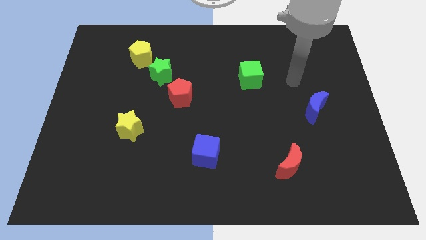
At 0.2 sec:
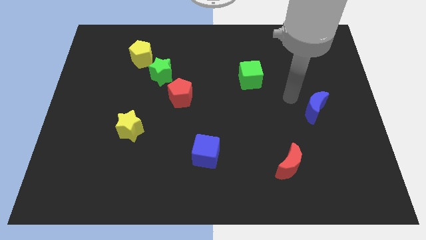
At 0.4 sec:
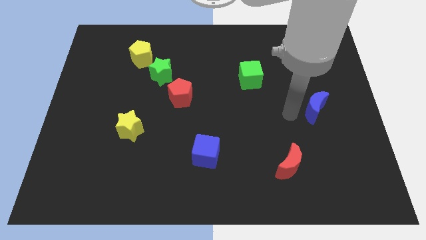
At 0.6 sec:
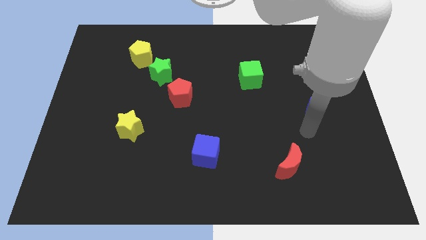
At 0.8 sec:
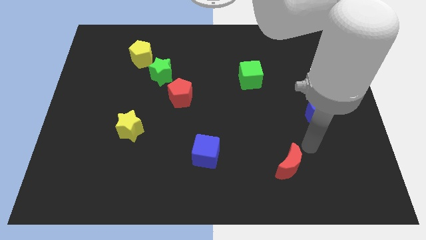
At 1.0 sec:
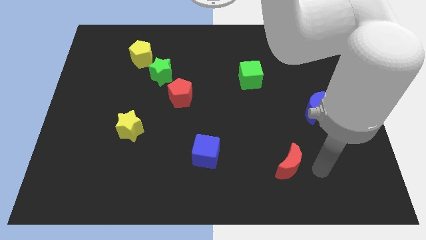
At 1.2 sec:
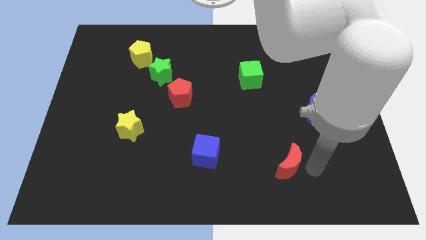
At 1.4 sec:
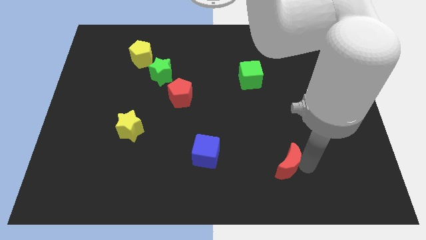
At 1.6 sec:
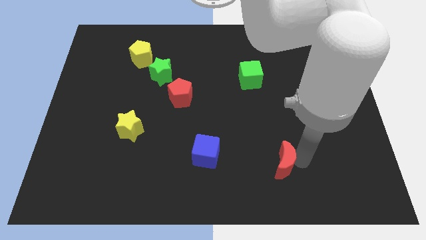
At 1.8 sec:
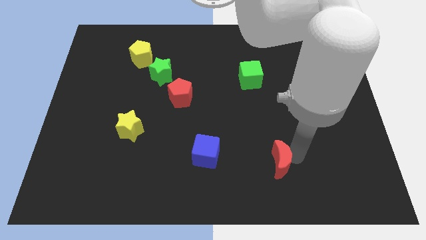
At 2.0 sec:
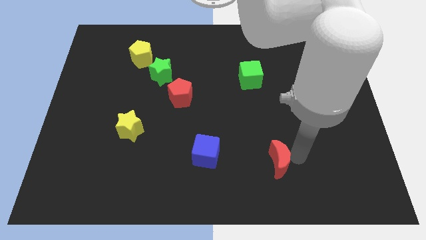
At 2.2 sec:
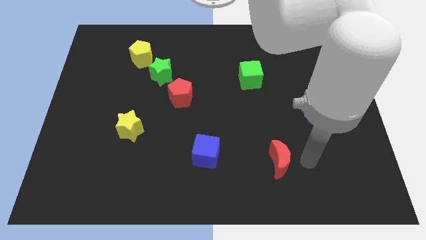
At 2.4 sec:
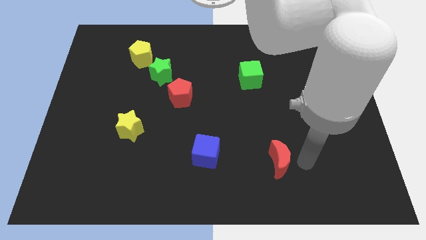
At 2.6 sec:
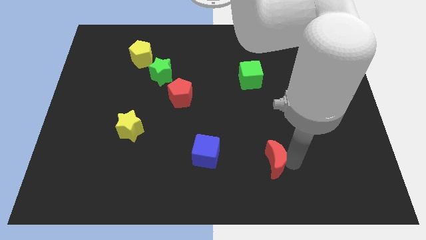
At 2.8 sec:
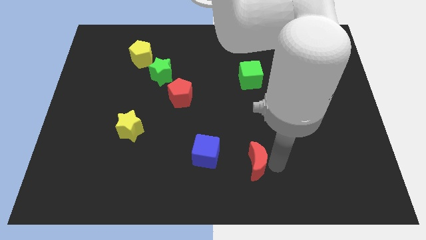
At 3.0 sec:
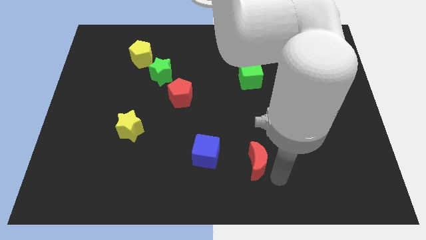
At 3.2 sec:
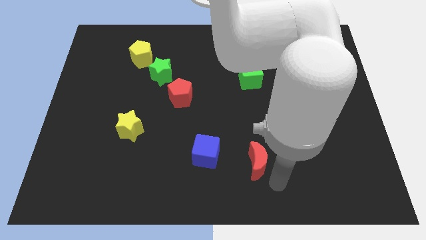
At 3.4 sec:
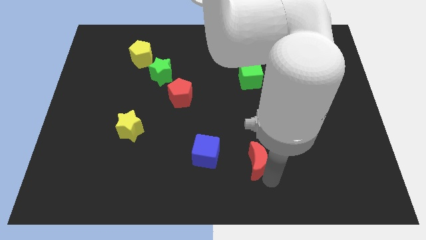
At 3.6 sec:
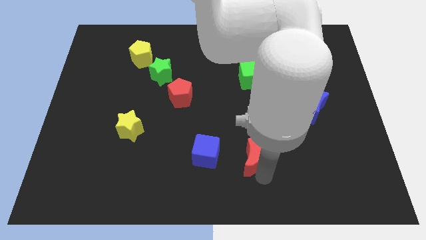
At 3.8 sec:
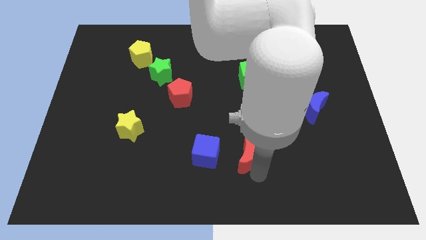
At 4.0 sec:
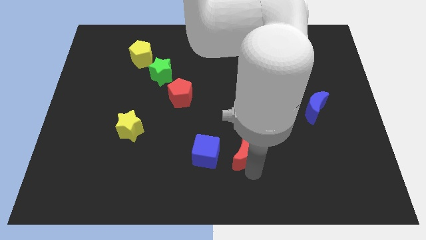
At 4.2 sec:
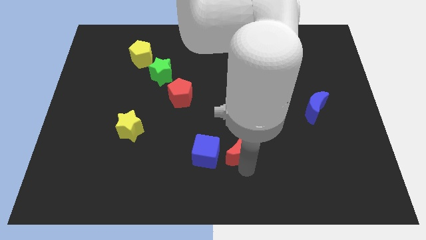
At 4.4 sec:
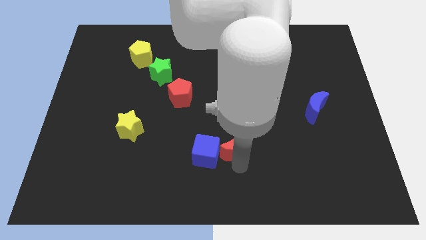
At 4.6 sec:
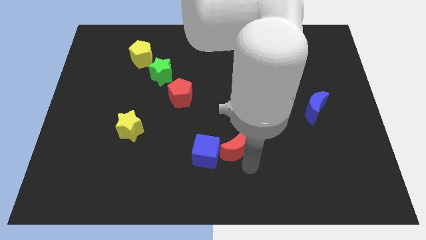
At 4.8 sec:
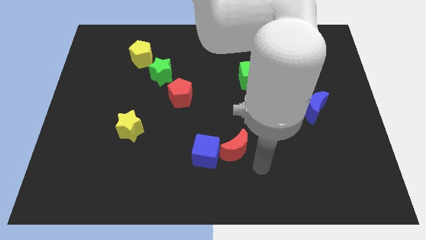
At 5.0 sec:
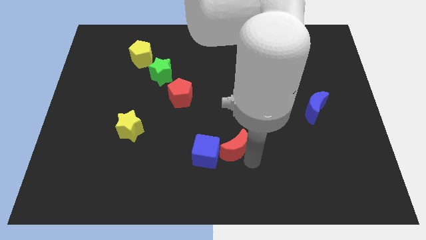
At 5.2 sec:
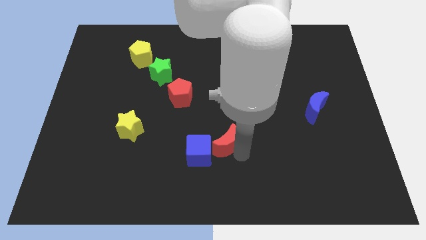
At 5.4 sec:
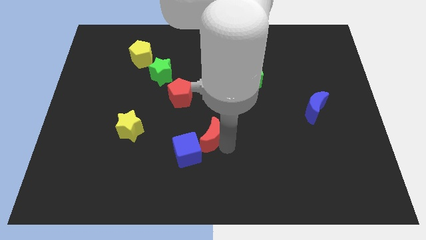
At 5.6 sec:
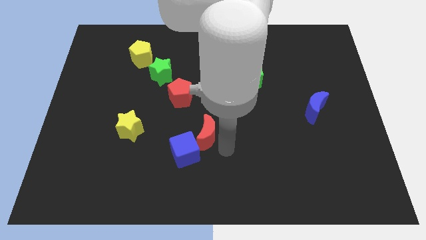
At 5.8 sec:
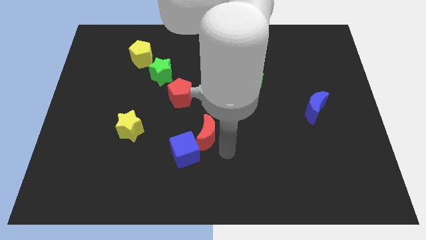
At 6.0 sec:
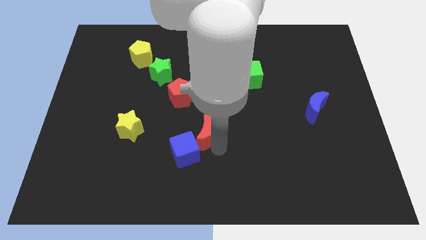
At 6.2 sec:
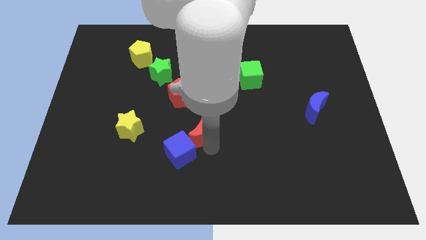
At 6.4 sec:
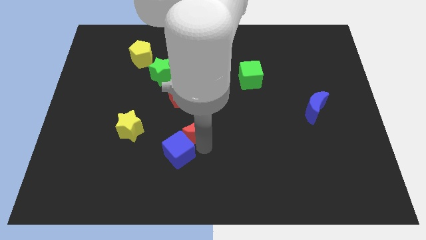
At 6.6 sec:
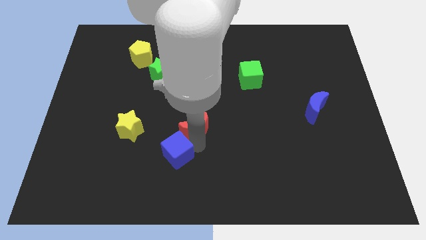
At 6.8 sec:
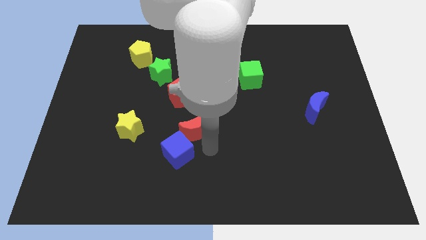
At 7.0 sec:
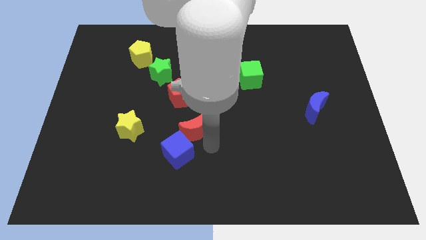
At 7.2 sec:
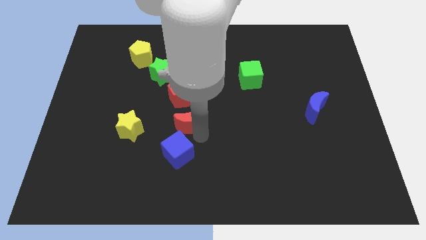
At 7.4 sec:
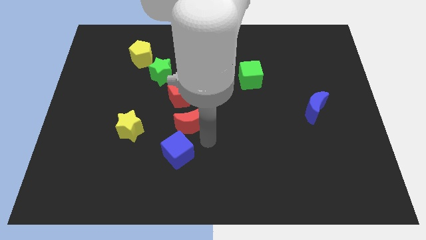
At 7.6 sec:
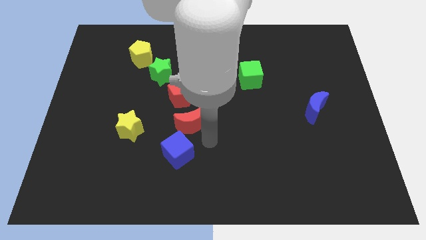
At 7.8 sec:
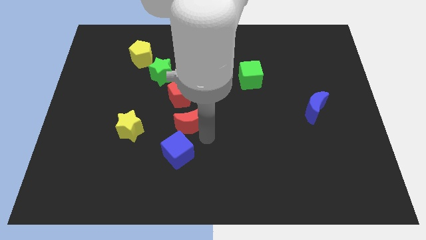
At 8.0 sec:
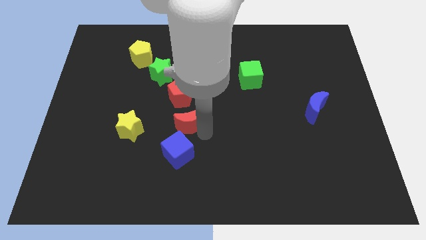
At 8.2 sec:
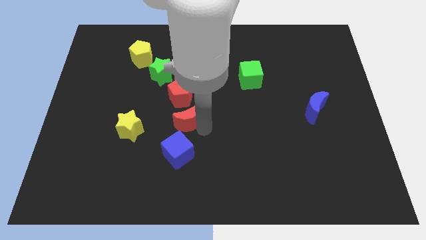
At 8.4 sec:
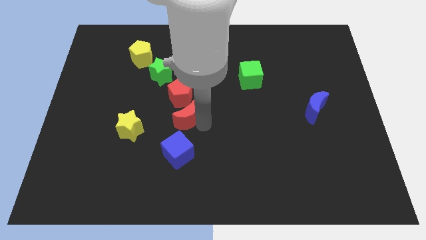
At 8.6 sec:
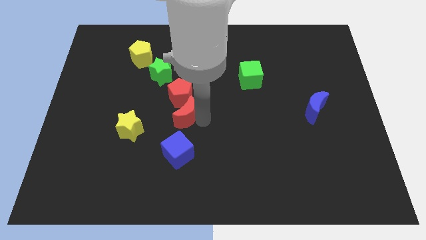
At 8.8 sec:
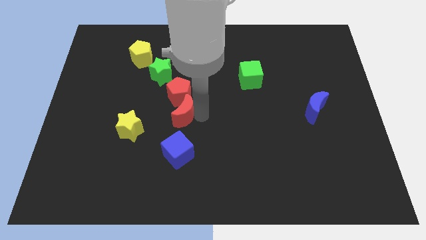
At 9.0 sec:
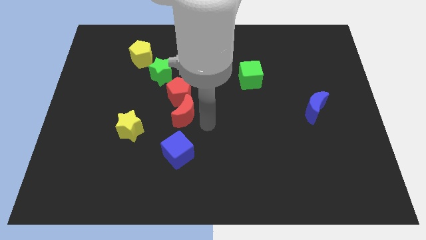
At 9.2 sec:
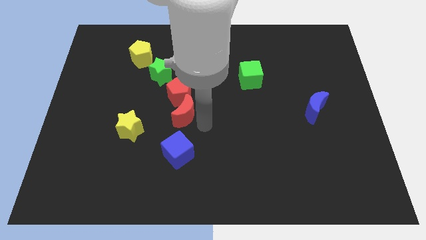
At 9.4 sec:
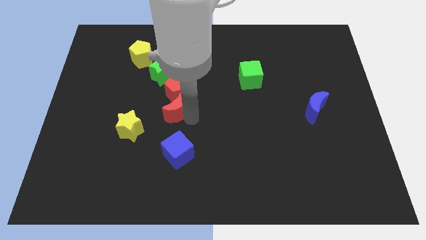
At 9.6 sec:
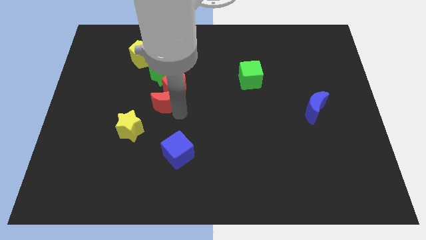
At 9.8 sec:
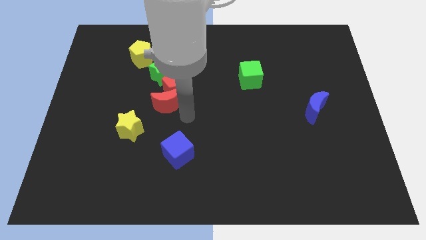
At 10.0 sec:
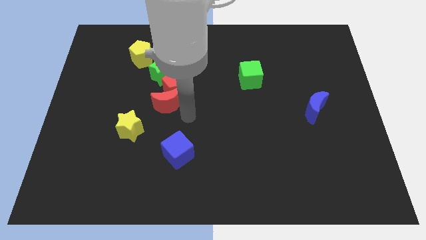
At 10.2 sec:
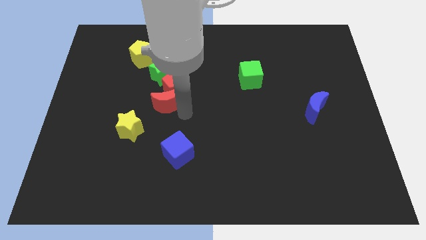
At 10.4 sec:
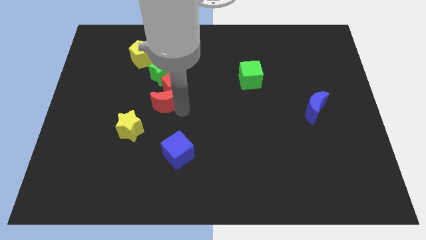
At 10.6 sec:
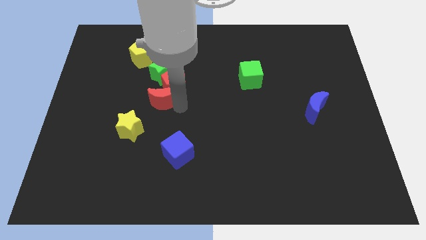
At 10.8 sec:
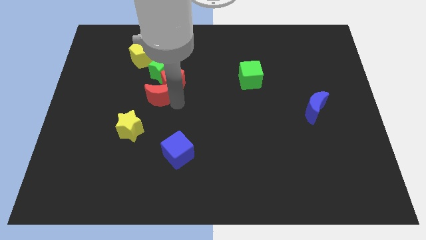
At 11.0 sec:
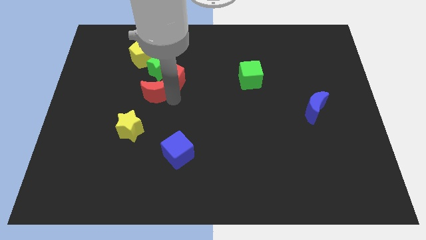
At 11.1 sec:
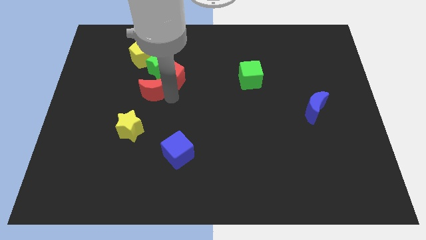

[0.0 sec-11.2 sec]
put the red moon below the yellow pentagon

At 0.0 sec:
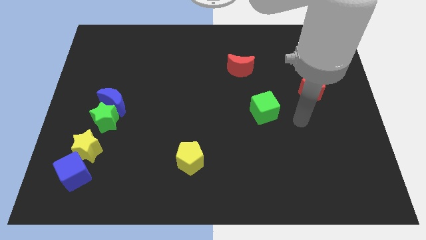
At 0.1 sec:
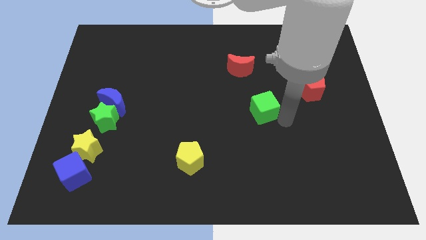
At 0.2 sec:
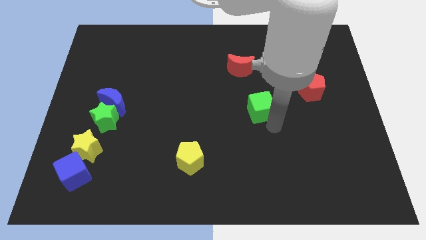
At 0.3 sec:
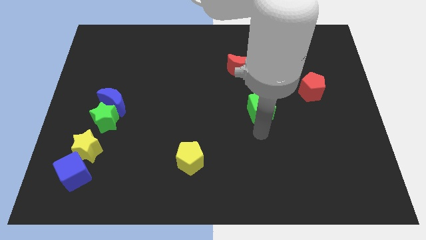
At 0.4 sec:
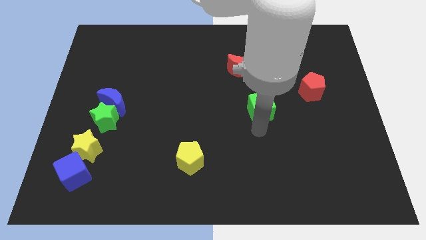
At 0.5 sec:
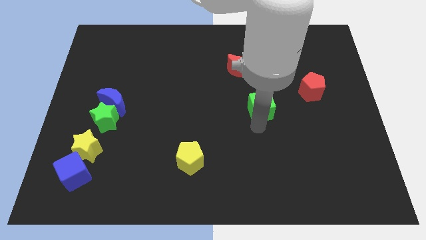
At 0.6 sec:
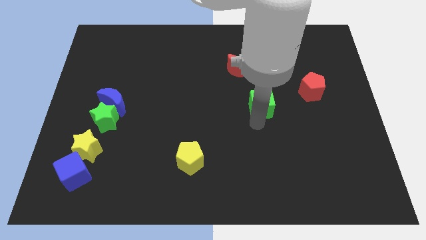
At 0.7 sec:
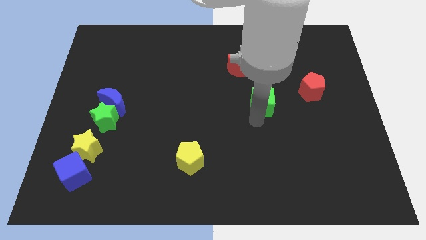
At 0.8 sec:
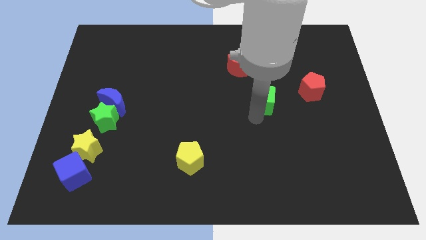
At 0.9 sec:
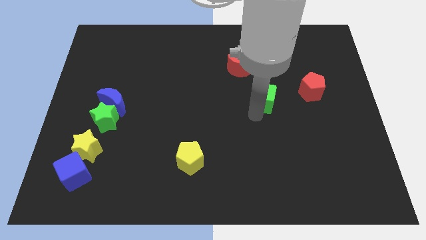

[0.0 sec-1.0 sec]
put the green cube diagonally down and to the right of the red moon
